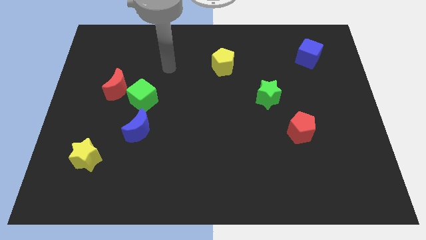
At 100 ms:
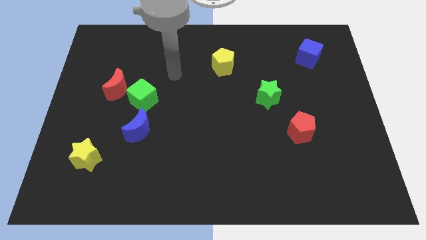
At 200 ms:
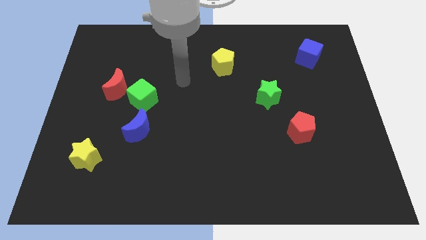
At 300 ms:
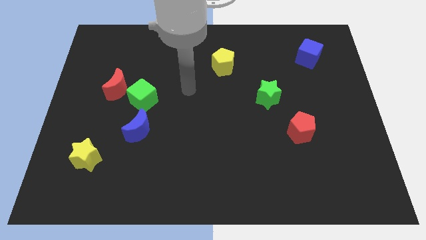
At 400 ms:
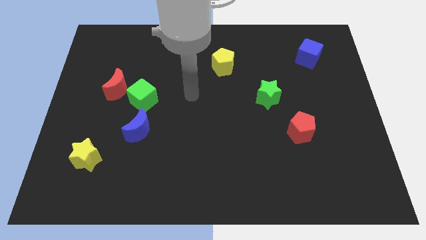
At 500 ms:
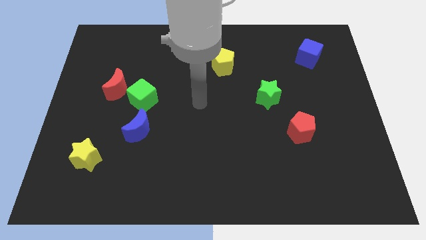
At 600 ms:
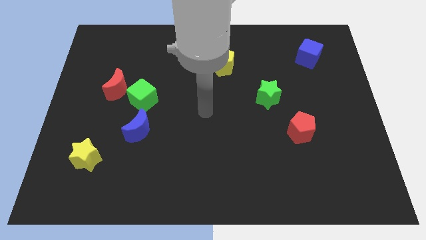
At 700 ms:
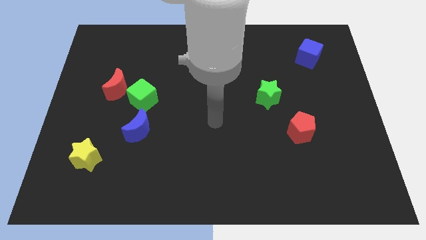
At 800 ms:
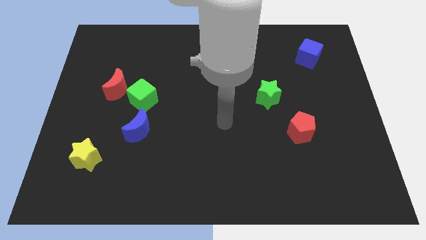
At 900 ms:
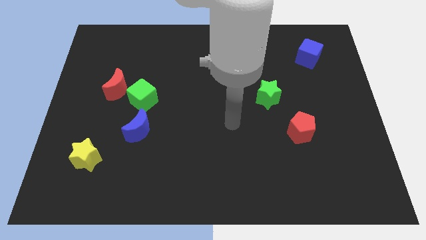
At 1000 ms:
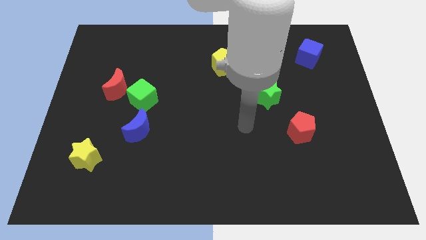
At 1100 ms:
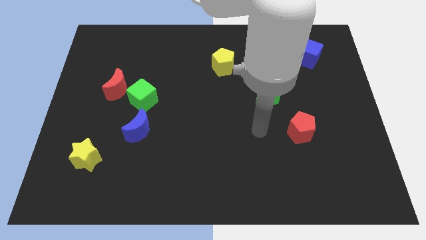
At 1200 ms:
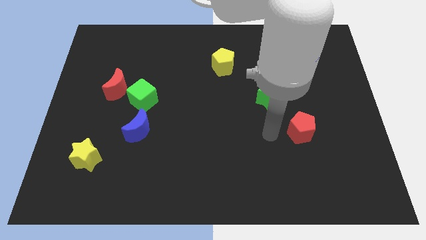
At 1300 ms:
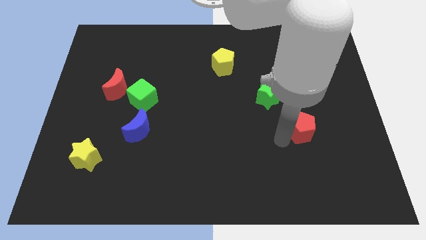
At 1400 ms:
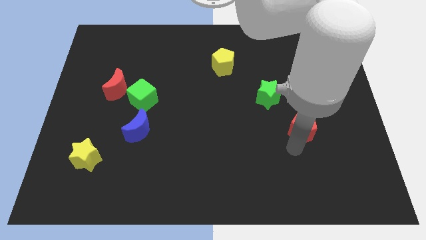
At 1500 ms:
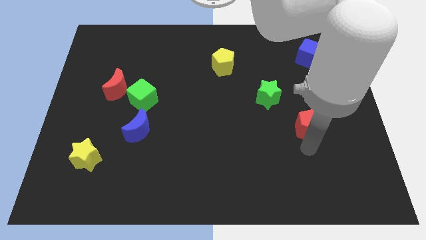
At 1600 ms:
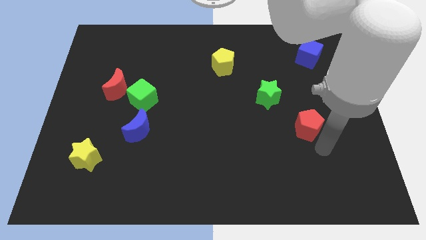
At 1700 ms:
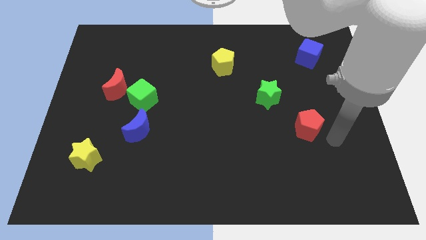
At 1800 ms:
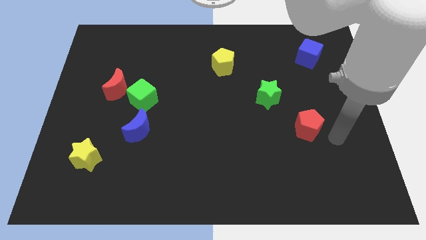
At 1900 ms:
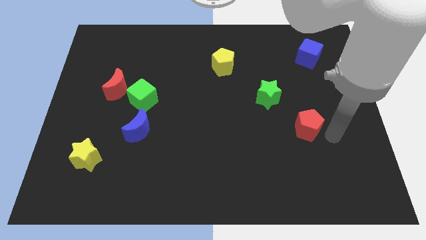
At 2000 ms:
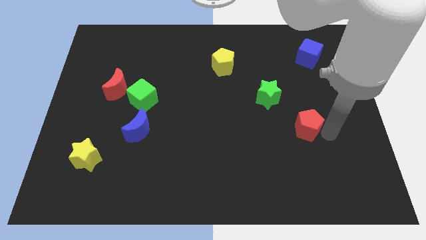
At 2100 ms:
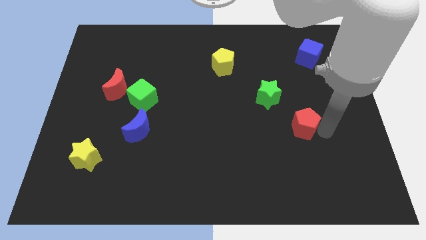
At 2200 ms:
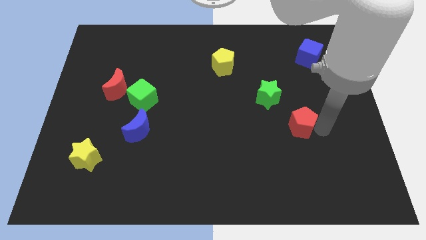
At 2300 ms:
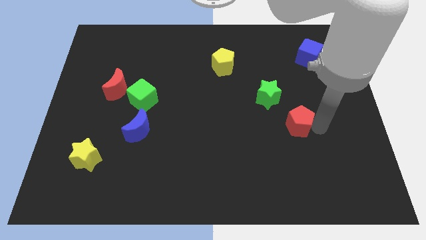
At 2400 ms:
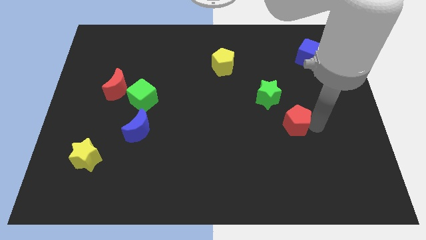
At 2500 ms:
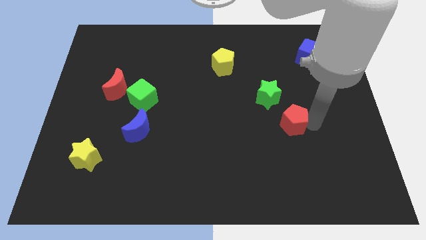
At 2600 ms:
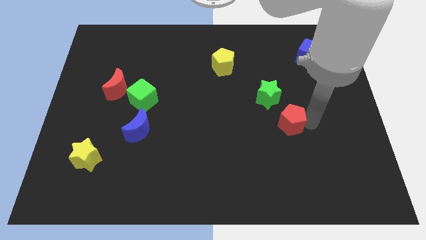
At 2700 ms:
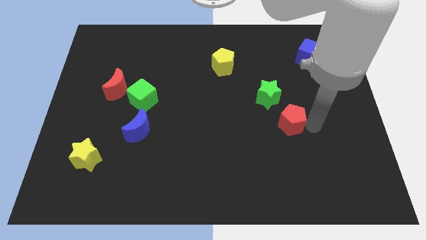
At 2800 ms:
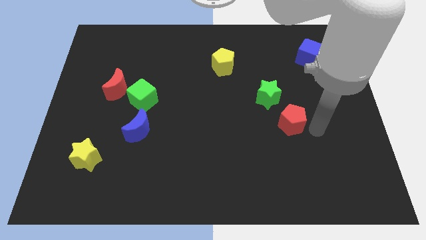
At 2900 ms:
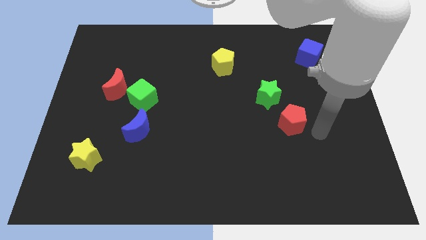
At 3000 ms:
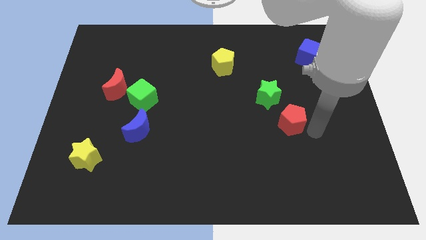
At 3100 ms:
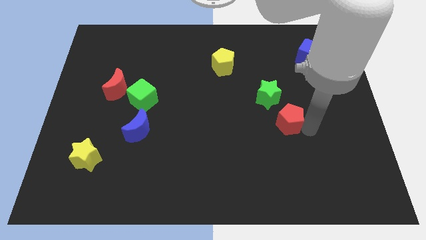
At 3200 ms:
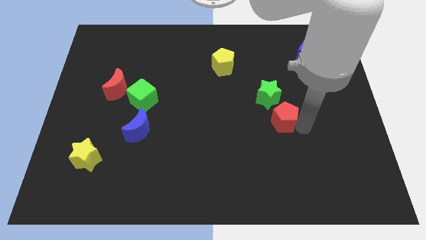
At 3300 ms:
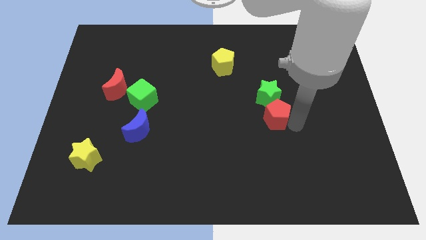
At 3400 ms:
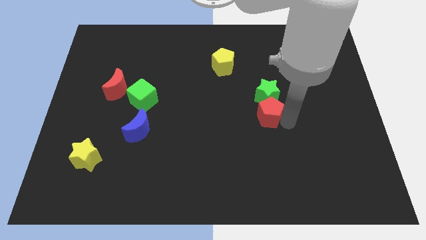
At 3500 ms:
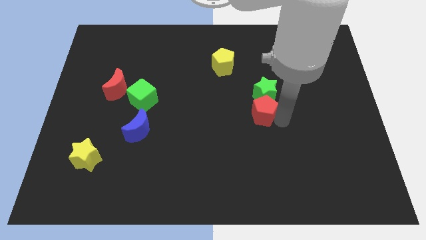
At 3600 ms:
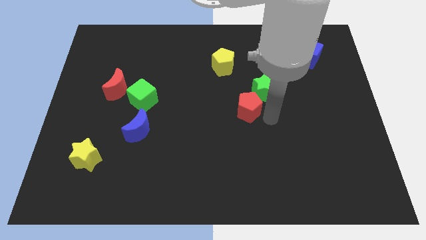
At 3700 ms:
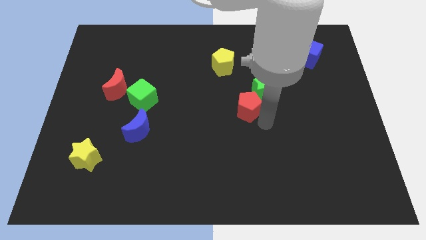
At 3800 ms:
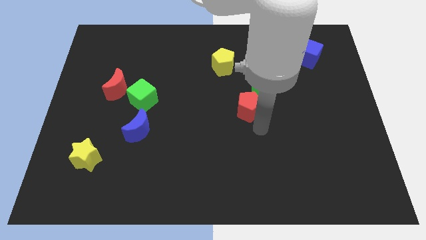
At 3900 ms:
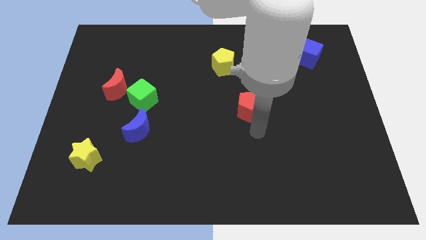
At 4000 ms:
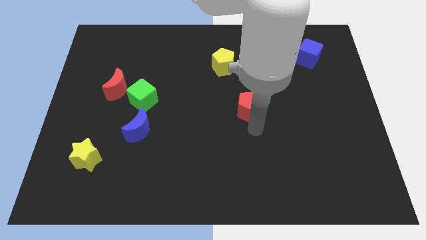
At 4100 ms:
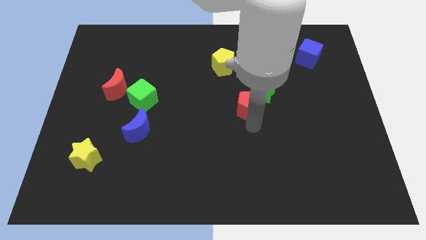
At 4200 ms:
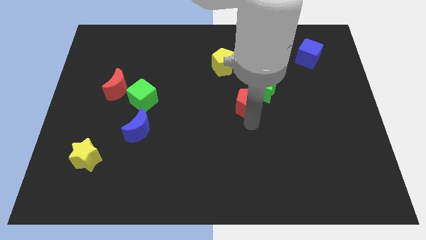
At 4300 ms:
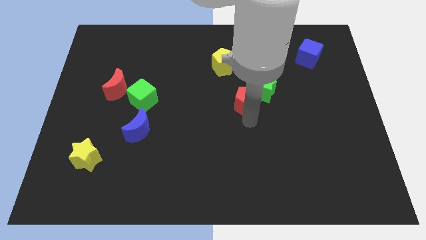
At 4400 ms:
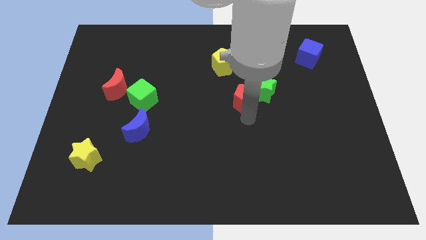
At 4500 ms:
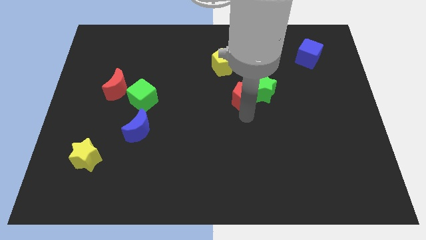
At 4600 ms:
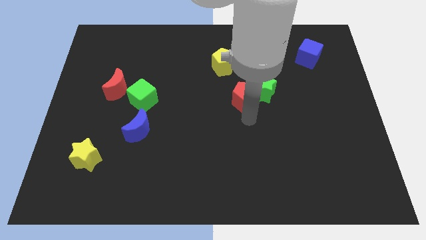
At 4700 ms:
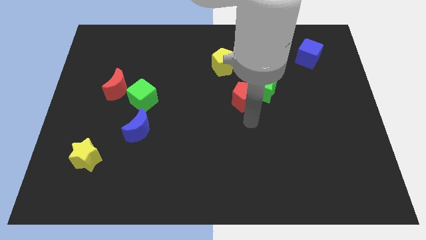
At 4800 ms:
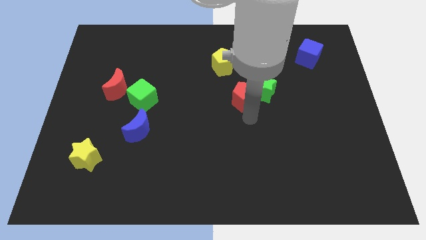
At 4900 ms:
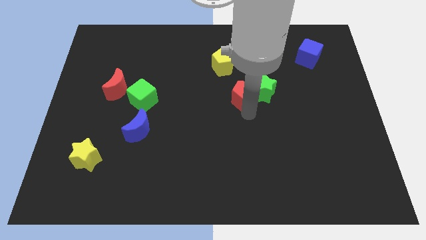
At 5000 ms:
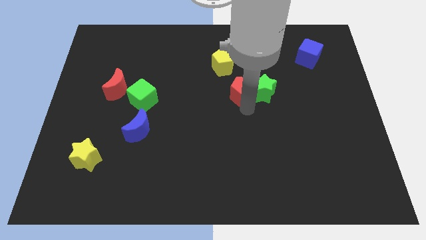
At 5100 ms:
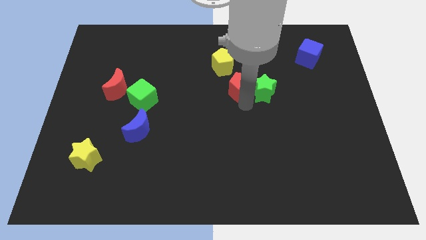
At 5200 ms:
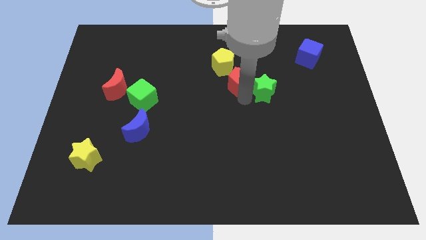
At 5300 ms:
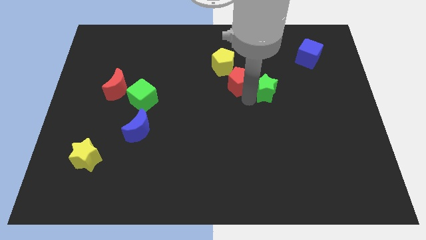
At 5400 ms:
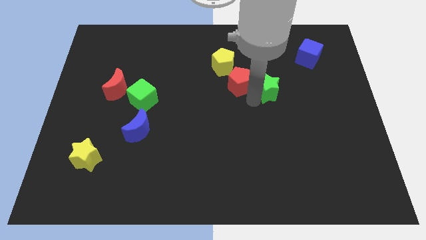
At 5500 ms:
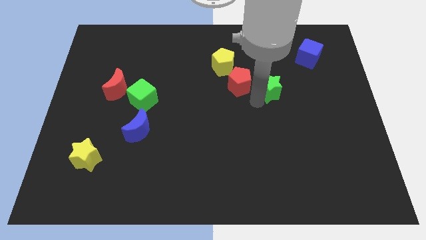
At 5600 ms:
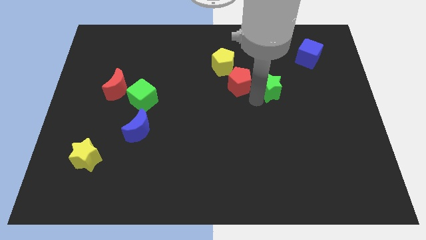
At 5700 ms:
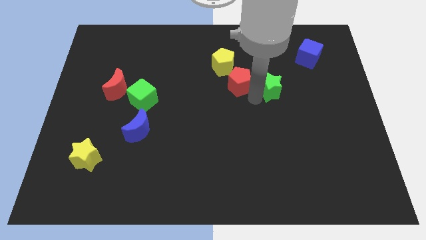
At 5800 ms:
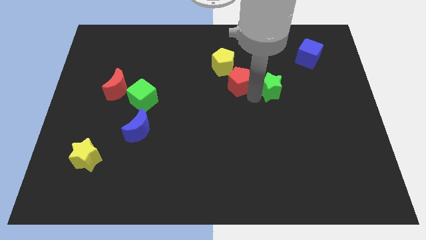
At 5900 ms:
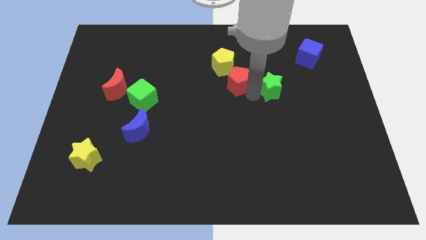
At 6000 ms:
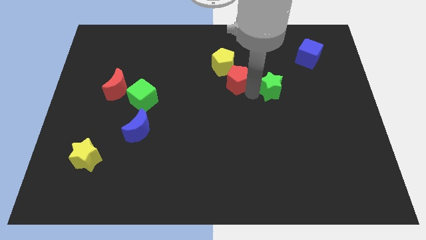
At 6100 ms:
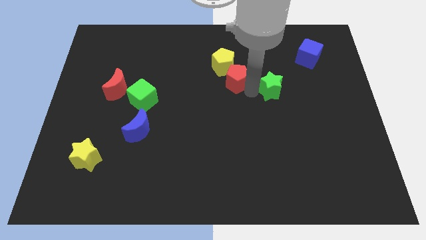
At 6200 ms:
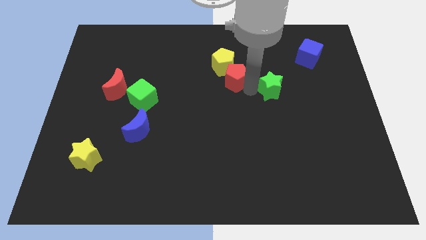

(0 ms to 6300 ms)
put the red pentagon next to the yellow pentagon

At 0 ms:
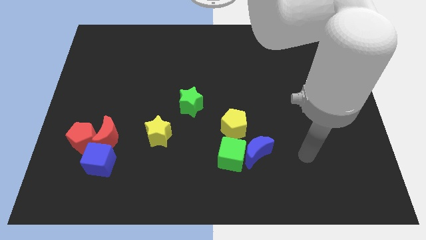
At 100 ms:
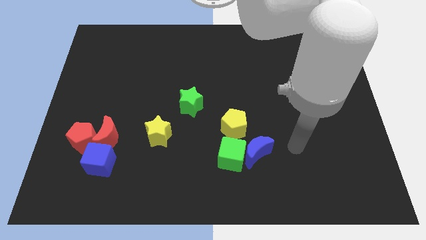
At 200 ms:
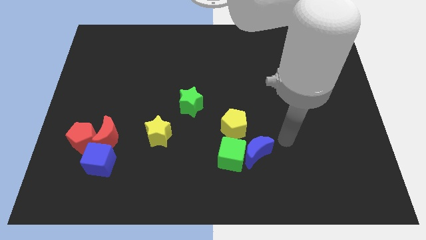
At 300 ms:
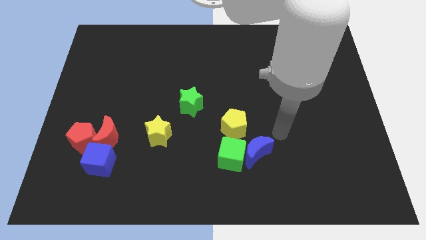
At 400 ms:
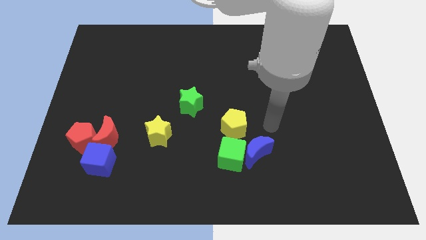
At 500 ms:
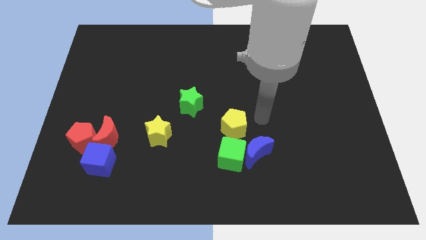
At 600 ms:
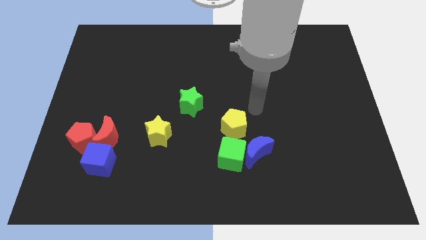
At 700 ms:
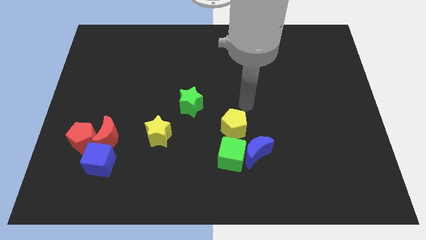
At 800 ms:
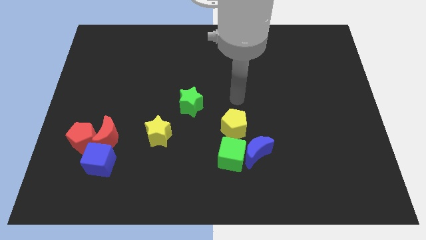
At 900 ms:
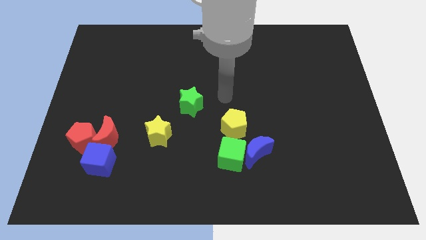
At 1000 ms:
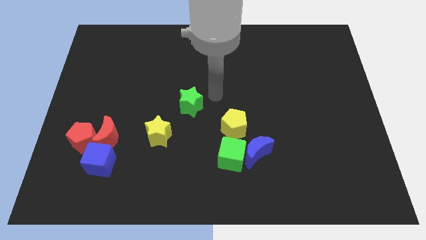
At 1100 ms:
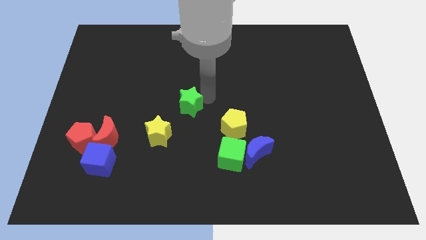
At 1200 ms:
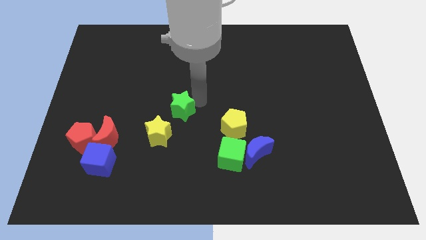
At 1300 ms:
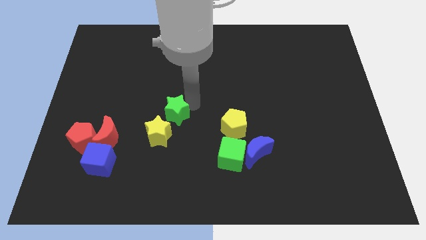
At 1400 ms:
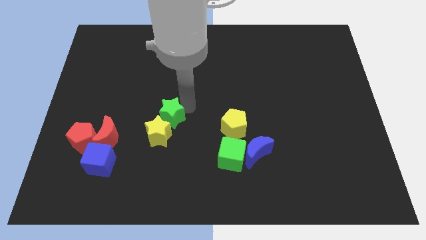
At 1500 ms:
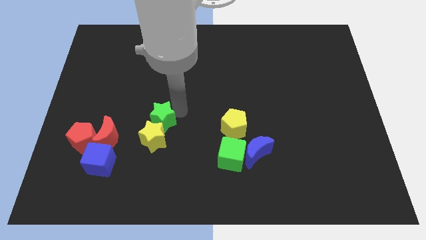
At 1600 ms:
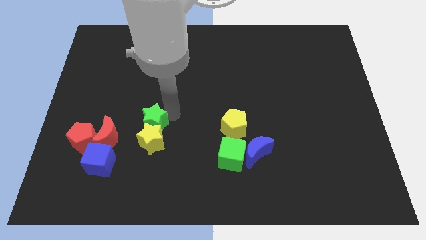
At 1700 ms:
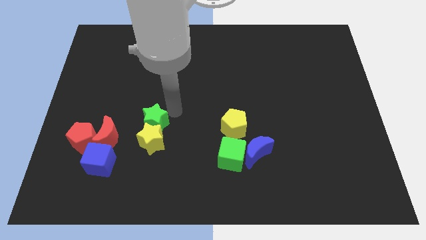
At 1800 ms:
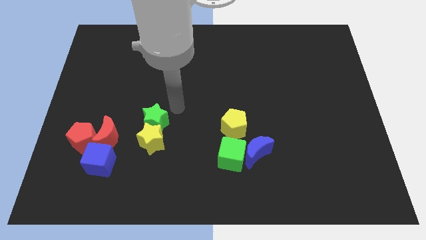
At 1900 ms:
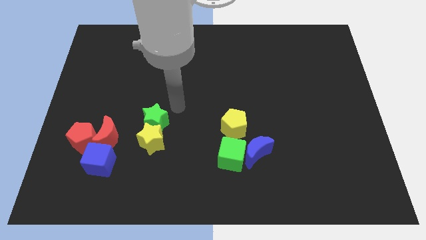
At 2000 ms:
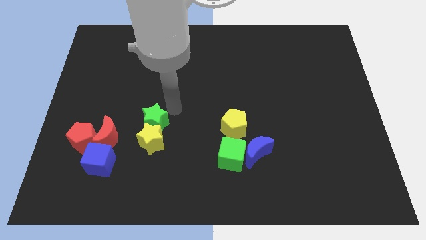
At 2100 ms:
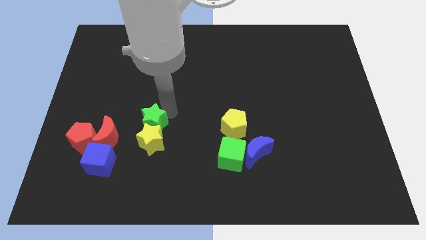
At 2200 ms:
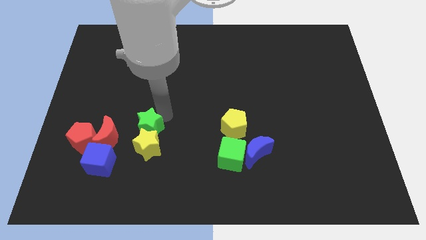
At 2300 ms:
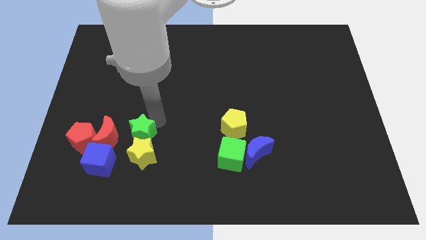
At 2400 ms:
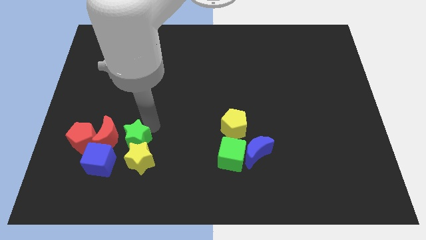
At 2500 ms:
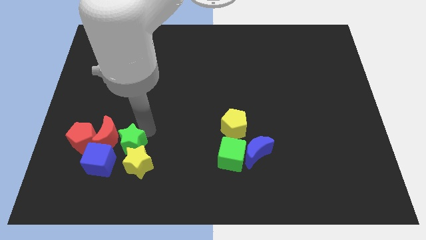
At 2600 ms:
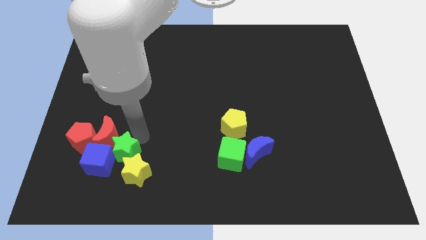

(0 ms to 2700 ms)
push the green star next to the blue cube
